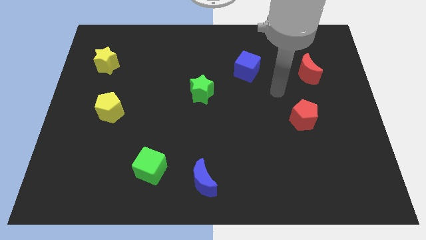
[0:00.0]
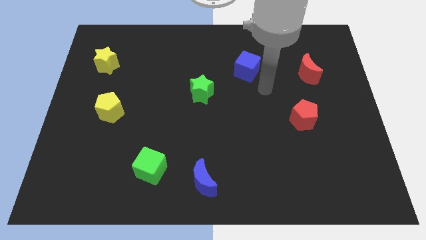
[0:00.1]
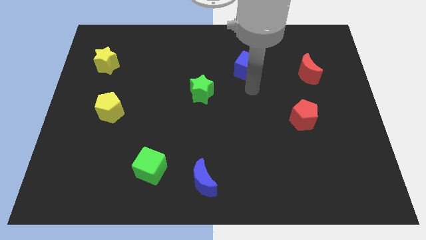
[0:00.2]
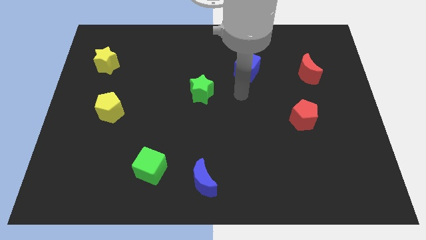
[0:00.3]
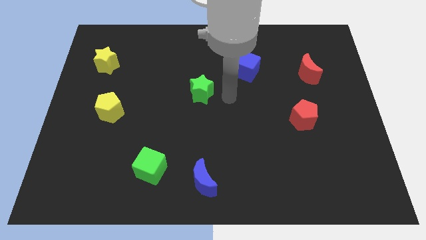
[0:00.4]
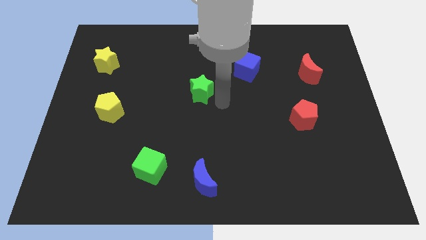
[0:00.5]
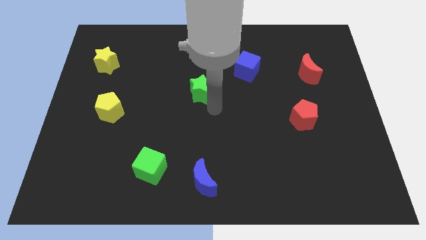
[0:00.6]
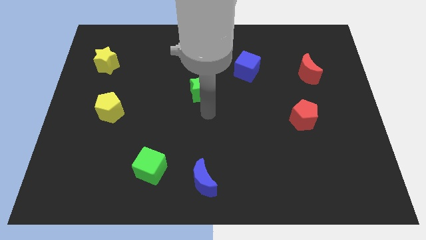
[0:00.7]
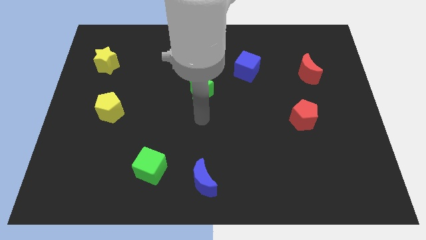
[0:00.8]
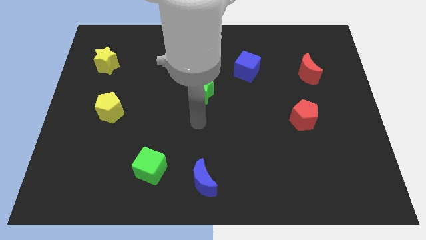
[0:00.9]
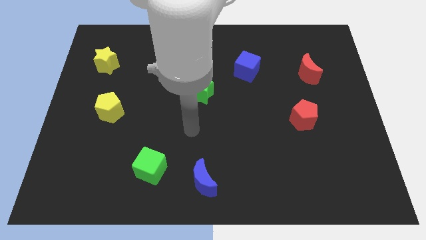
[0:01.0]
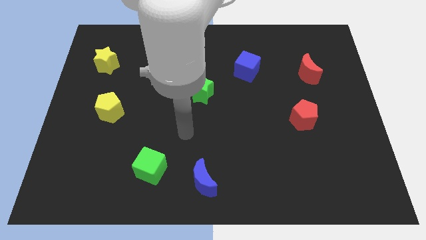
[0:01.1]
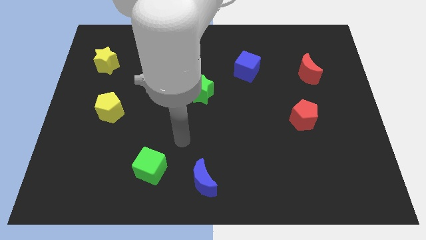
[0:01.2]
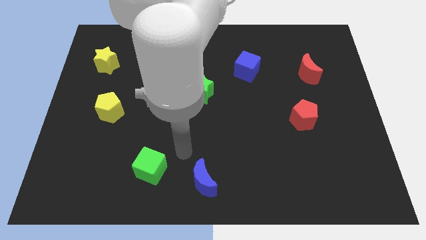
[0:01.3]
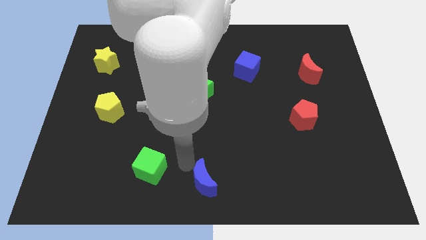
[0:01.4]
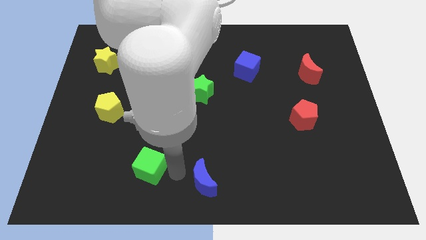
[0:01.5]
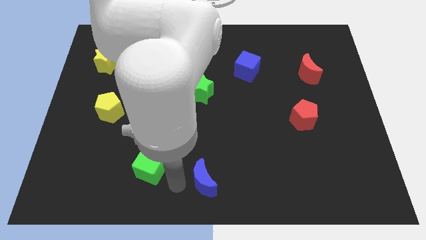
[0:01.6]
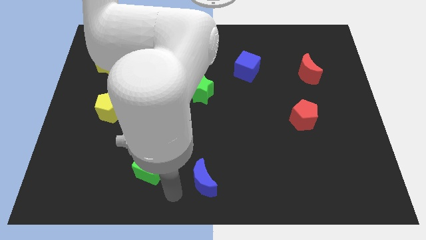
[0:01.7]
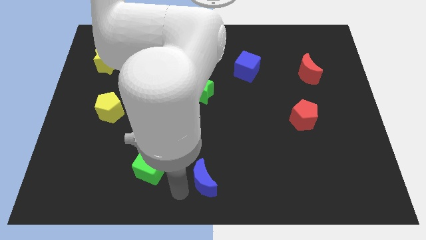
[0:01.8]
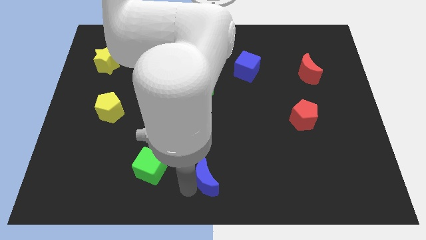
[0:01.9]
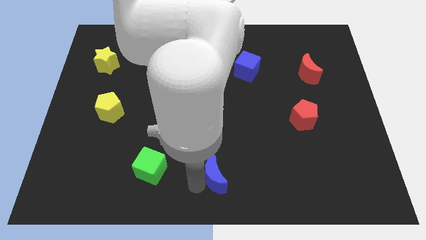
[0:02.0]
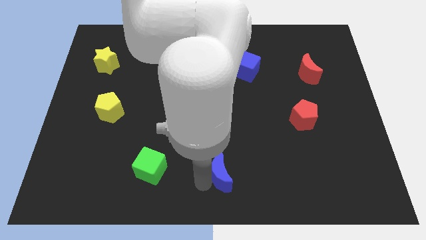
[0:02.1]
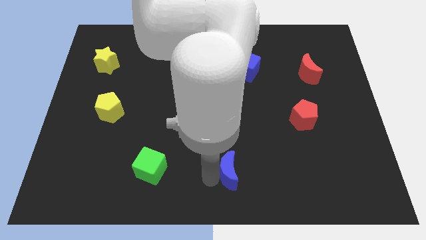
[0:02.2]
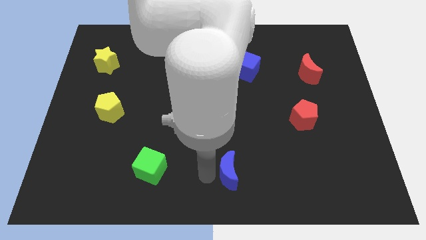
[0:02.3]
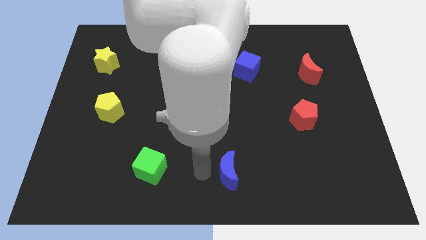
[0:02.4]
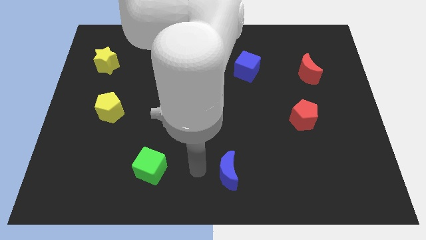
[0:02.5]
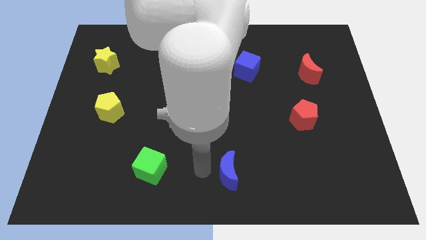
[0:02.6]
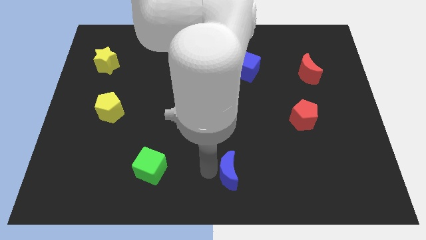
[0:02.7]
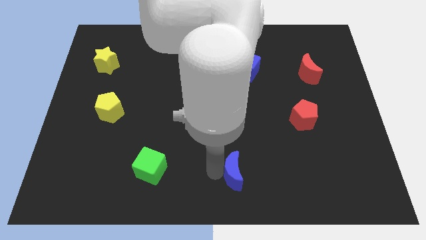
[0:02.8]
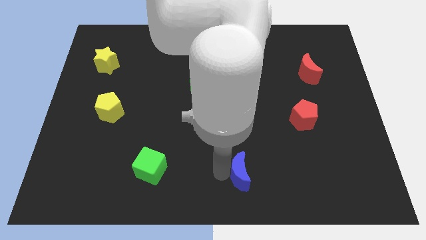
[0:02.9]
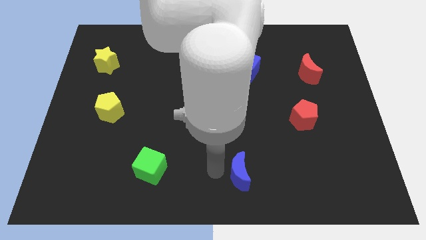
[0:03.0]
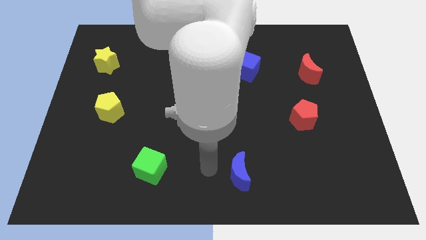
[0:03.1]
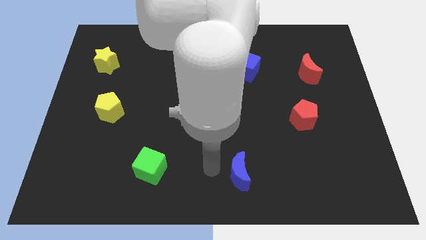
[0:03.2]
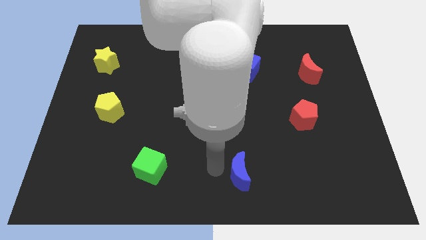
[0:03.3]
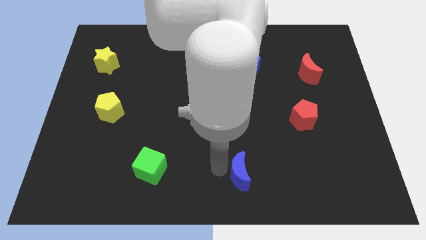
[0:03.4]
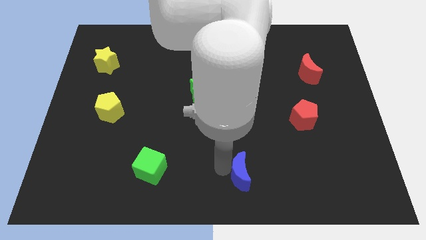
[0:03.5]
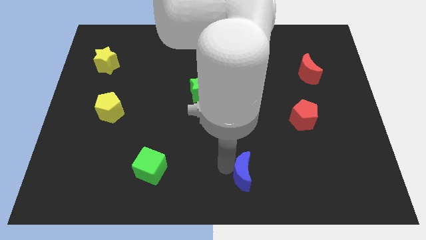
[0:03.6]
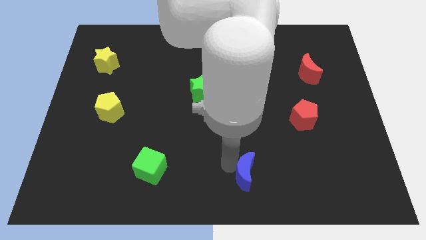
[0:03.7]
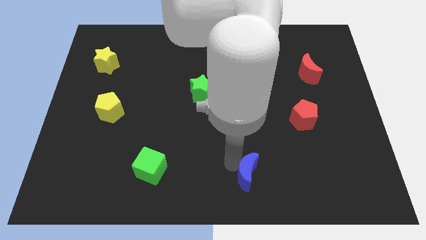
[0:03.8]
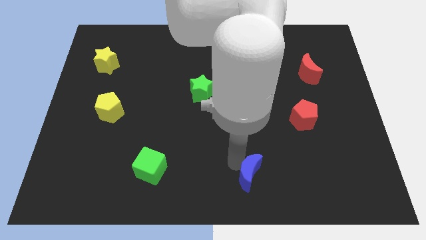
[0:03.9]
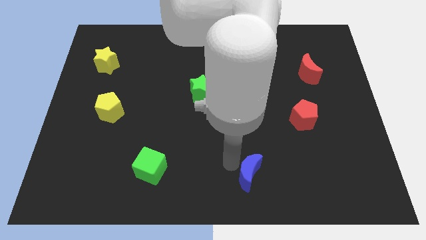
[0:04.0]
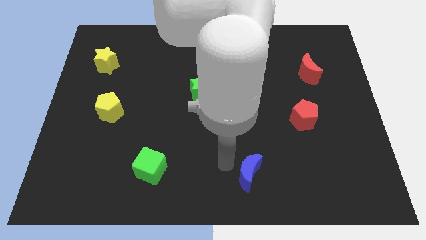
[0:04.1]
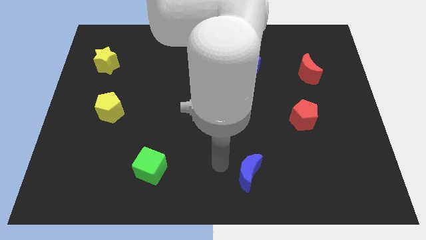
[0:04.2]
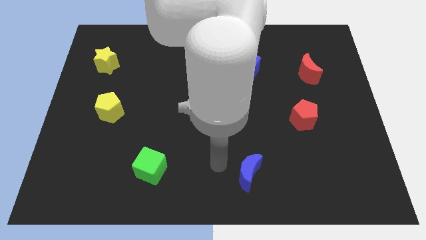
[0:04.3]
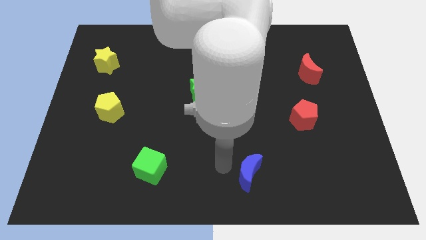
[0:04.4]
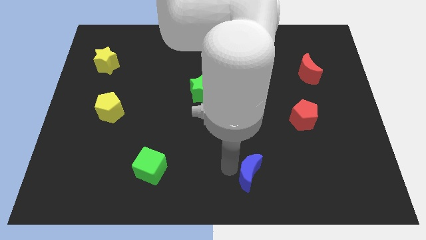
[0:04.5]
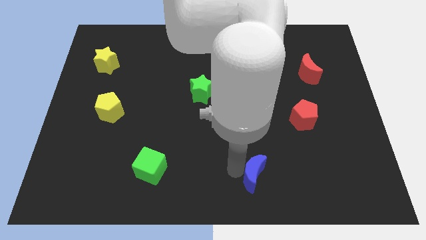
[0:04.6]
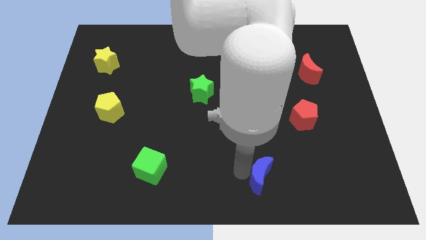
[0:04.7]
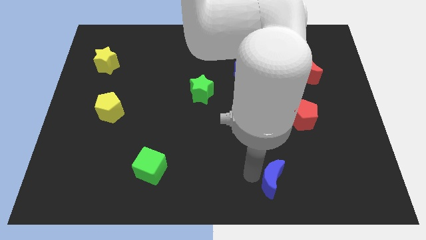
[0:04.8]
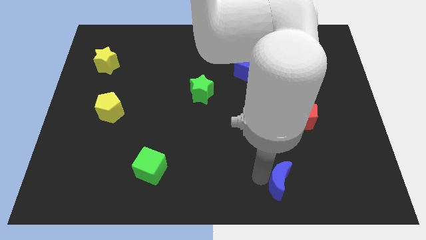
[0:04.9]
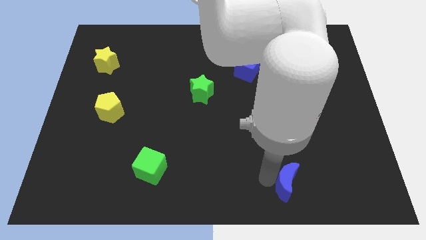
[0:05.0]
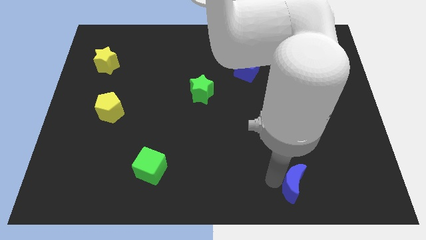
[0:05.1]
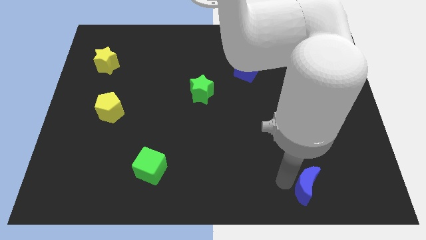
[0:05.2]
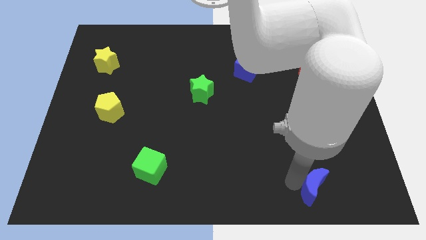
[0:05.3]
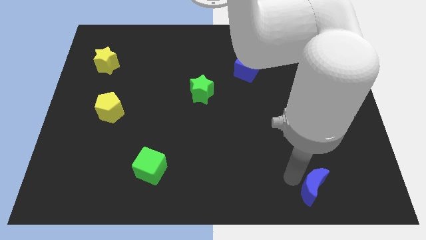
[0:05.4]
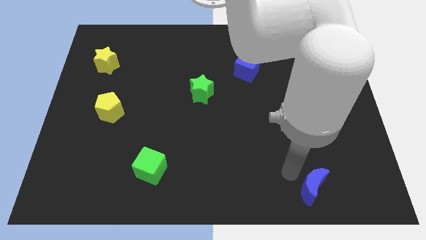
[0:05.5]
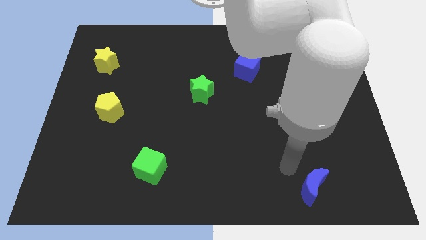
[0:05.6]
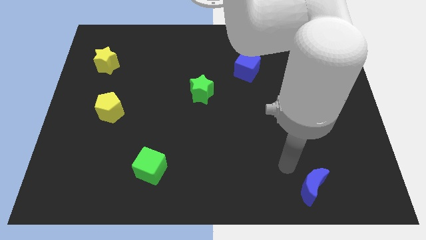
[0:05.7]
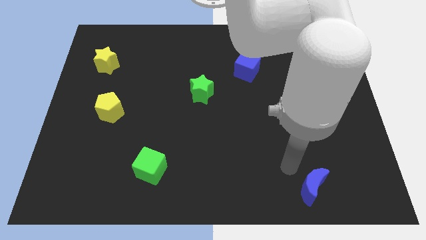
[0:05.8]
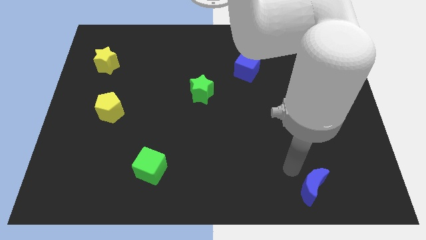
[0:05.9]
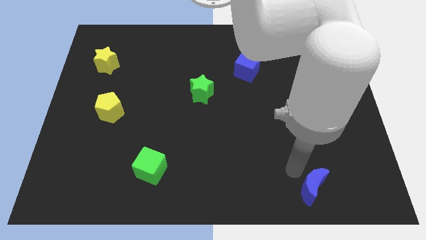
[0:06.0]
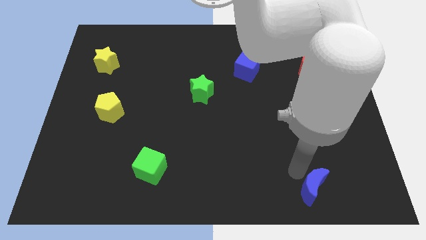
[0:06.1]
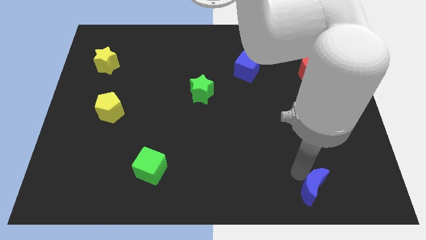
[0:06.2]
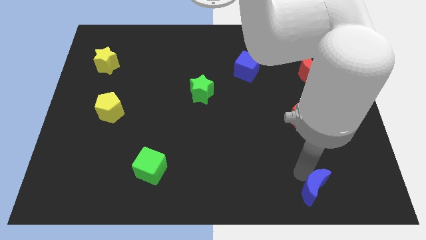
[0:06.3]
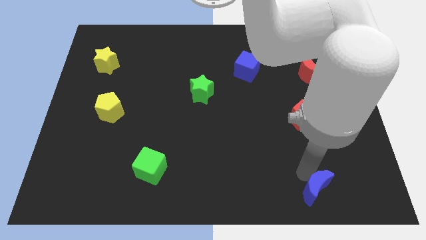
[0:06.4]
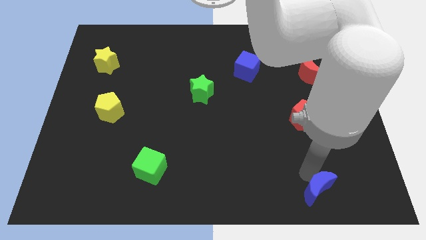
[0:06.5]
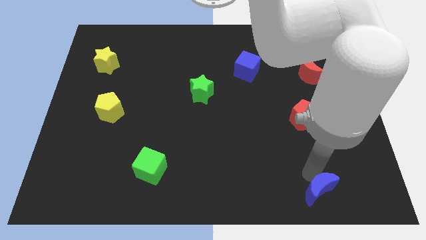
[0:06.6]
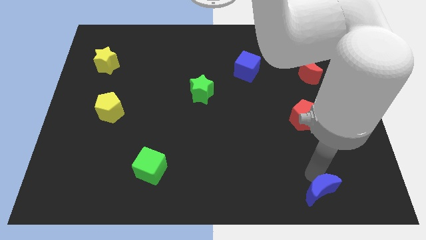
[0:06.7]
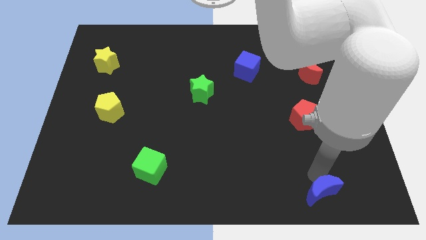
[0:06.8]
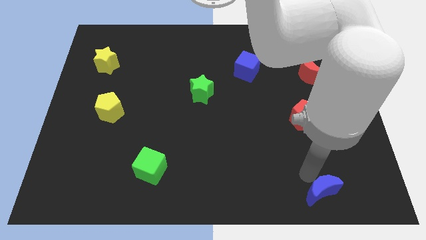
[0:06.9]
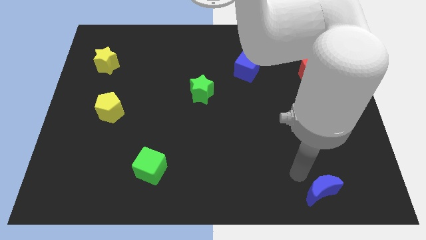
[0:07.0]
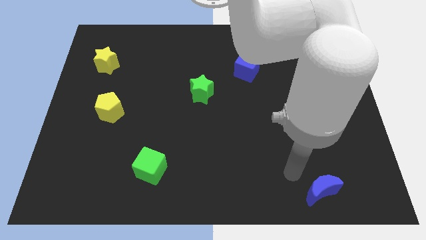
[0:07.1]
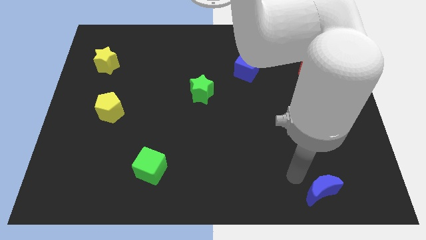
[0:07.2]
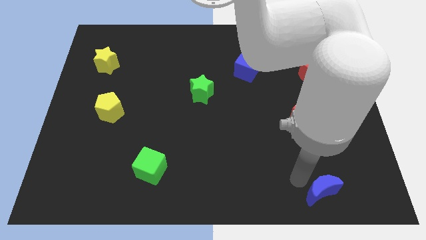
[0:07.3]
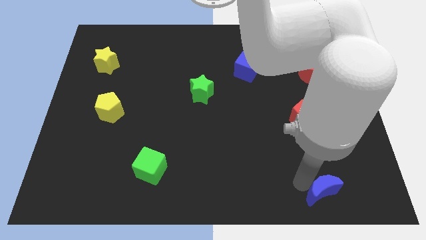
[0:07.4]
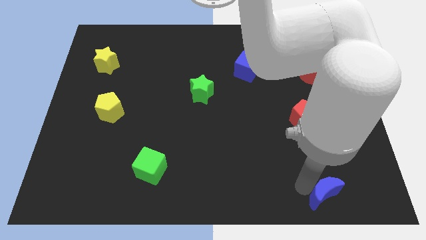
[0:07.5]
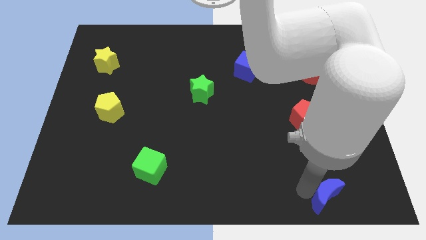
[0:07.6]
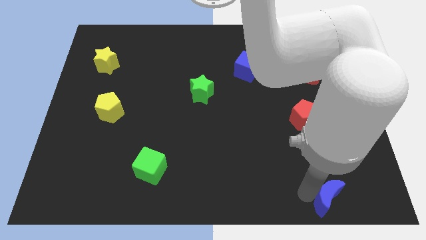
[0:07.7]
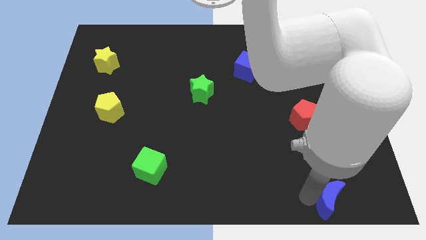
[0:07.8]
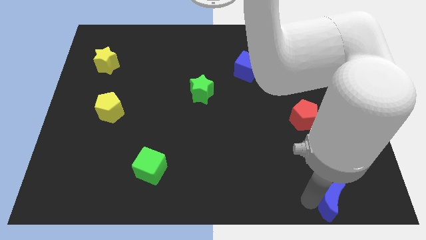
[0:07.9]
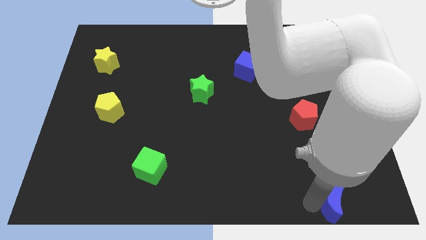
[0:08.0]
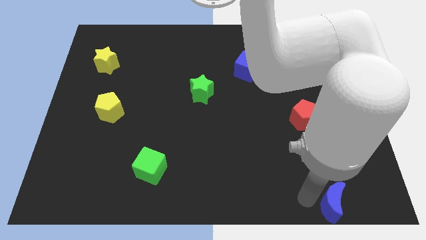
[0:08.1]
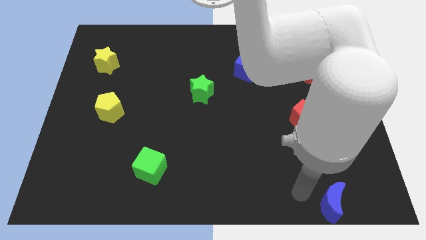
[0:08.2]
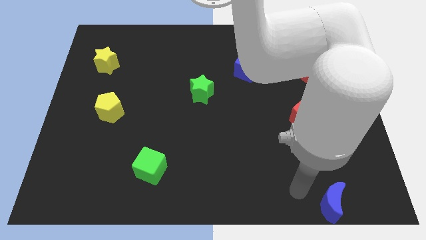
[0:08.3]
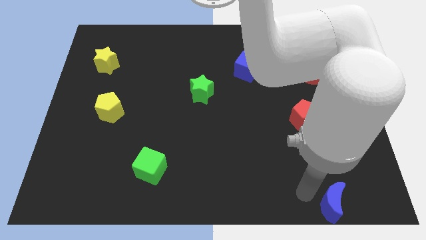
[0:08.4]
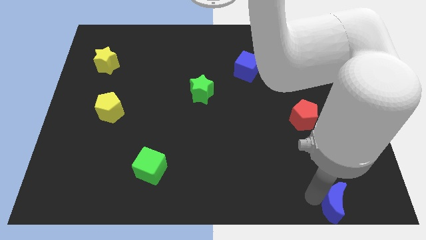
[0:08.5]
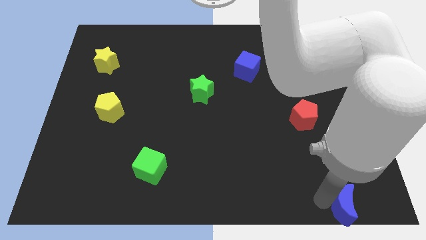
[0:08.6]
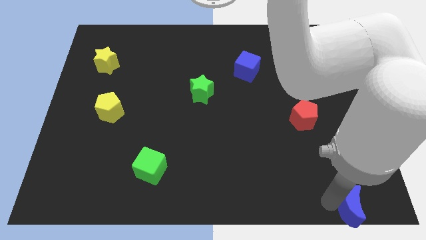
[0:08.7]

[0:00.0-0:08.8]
slide the blue moon to the bottom right corner
